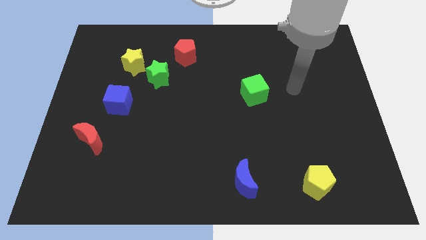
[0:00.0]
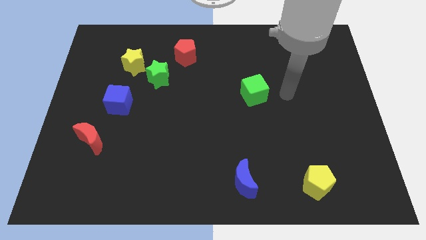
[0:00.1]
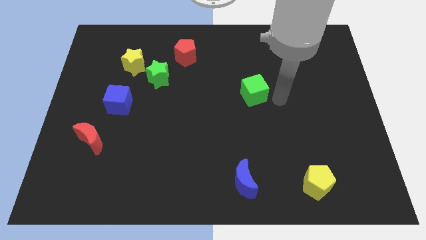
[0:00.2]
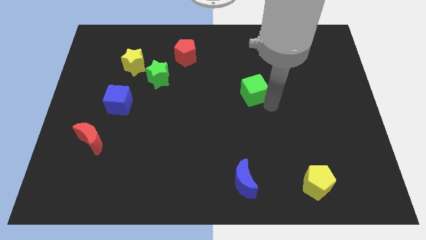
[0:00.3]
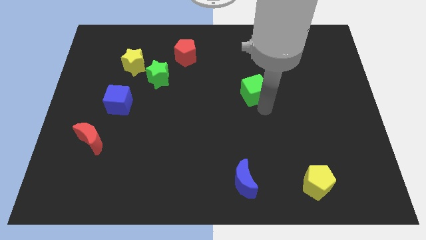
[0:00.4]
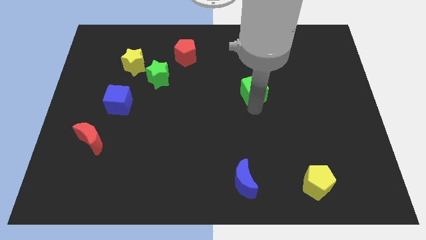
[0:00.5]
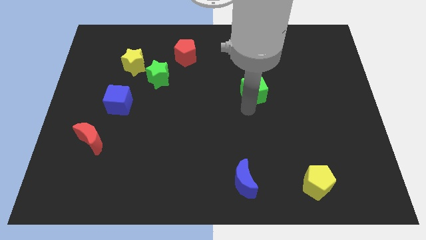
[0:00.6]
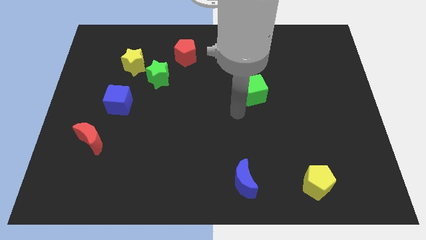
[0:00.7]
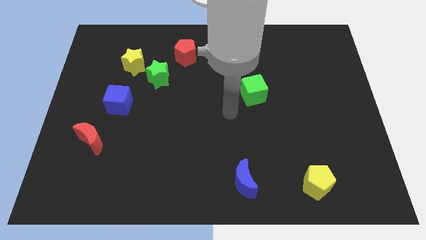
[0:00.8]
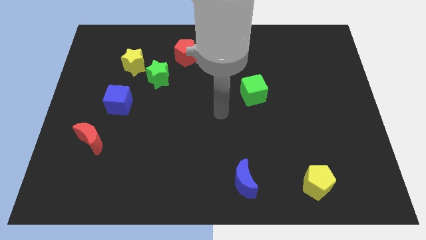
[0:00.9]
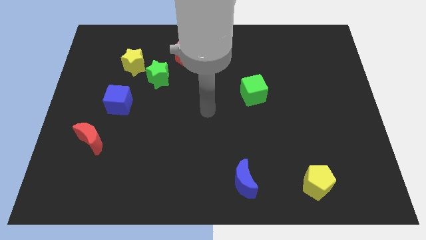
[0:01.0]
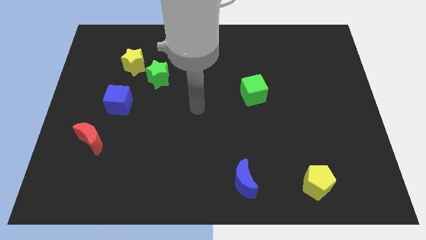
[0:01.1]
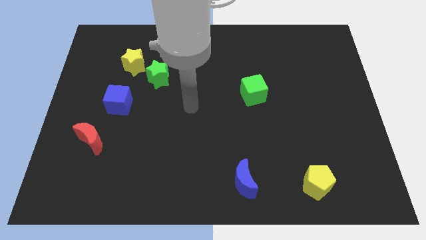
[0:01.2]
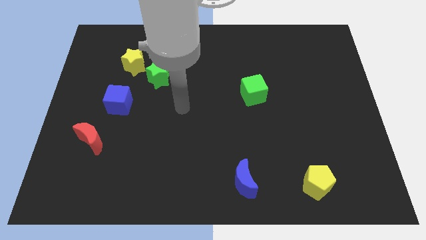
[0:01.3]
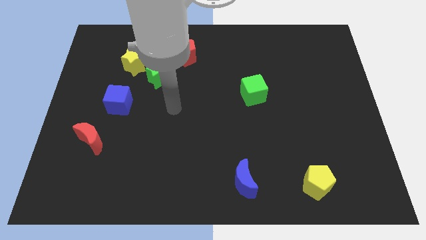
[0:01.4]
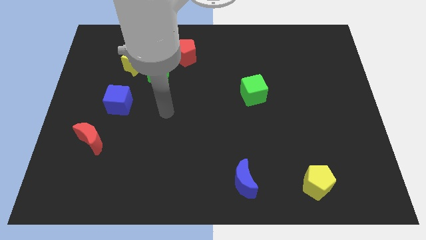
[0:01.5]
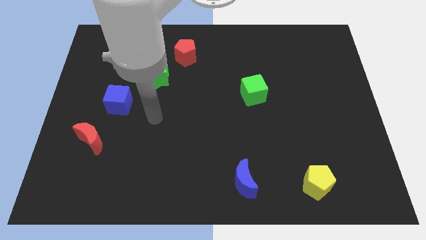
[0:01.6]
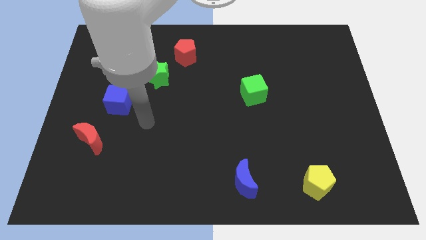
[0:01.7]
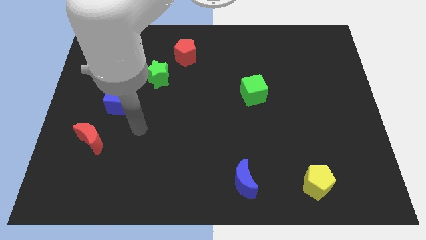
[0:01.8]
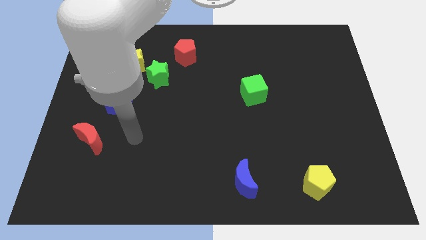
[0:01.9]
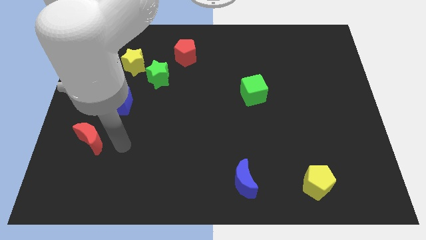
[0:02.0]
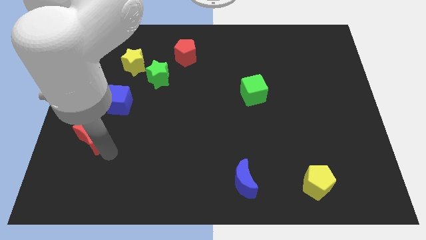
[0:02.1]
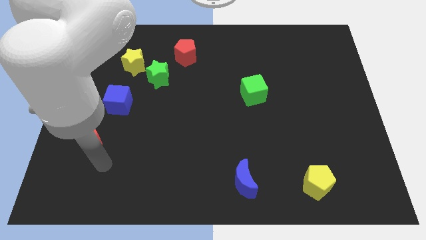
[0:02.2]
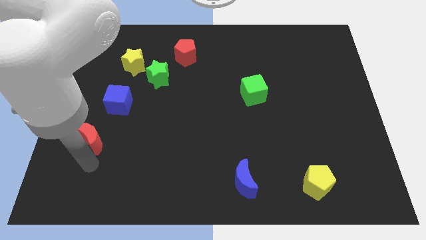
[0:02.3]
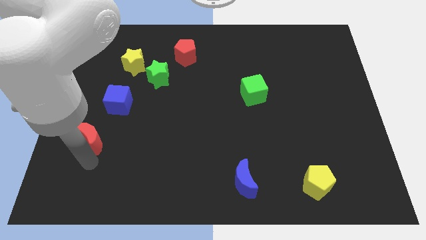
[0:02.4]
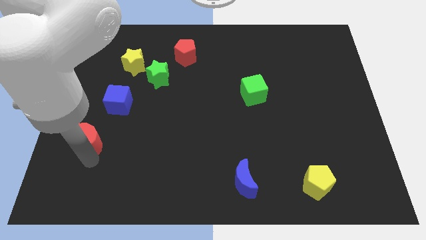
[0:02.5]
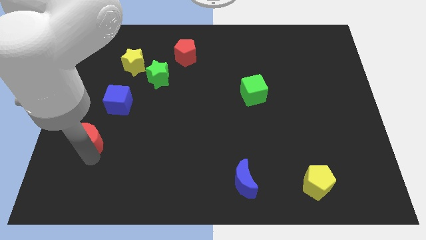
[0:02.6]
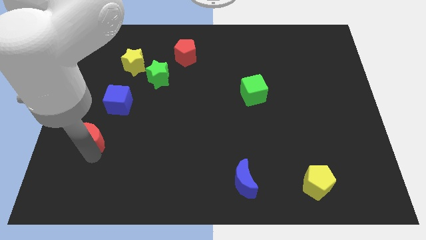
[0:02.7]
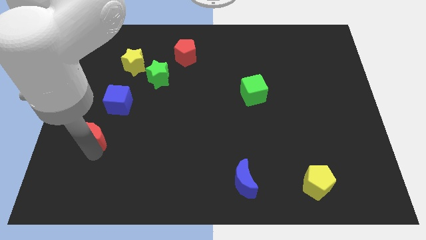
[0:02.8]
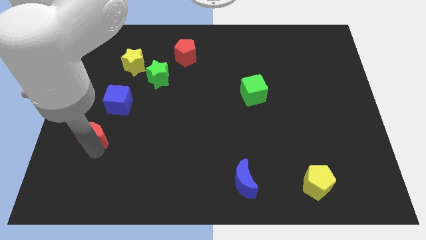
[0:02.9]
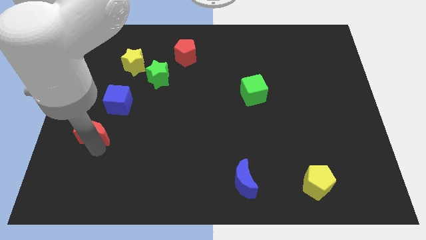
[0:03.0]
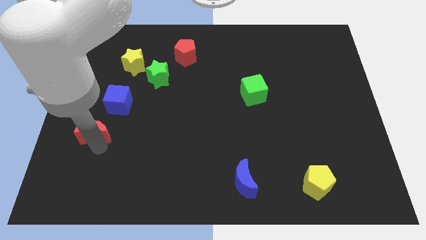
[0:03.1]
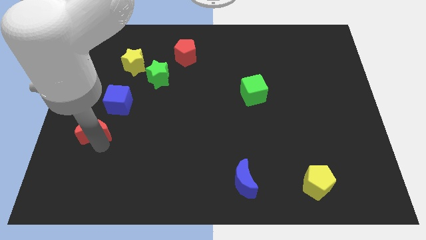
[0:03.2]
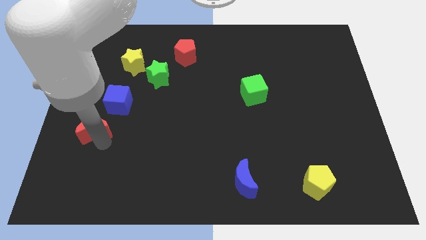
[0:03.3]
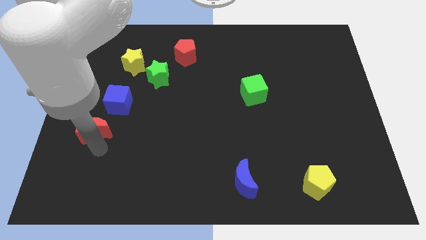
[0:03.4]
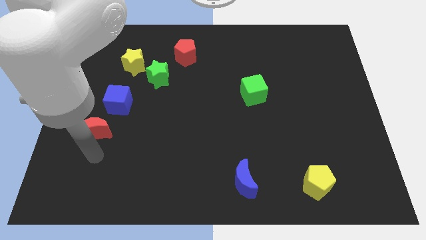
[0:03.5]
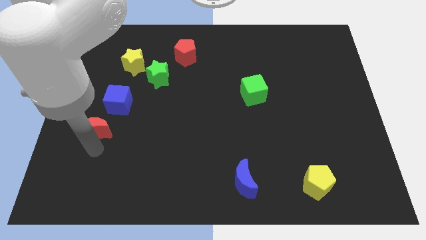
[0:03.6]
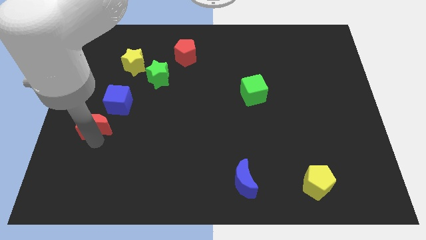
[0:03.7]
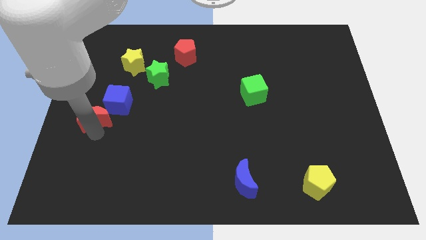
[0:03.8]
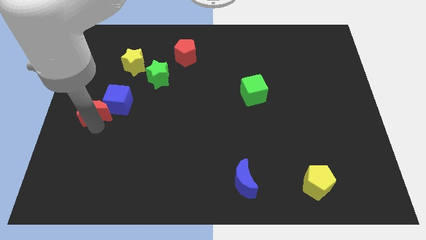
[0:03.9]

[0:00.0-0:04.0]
slightly slide the red moon up

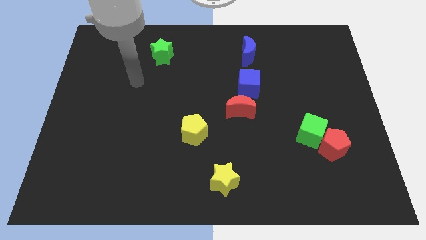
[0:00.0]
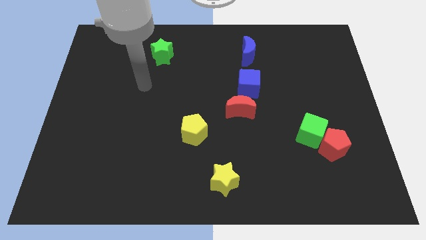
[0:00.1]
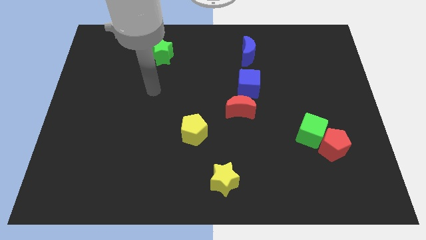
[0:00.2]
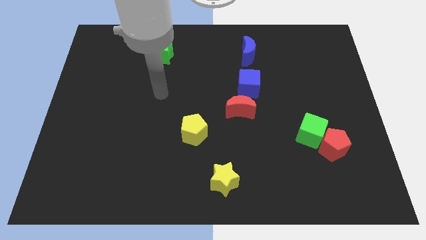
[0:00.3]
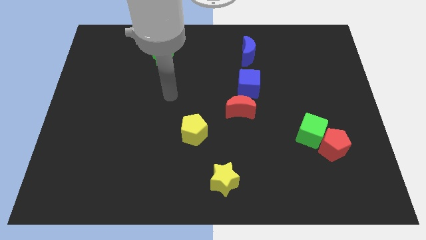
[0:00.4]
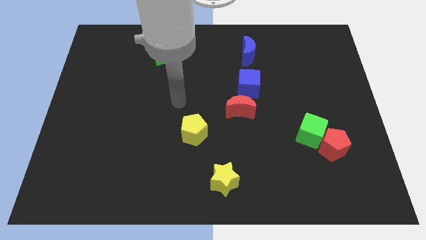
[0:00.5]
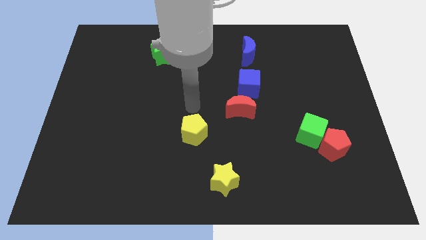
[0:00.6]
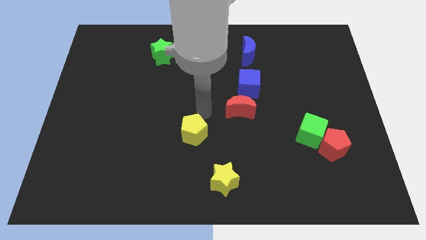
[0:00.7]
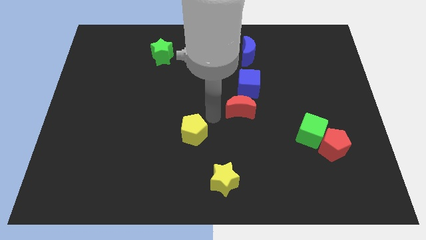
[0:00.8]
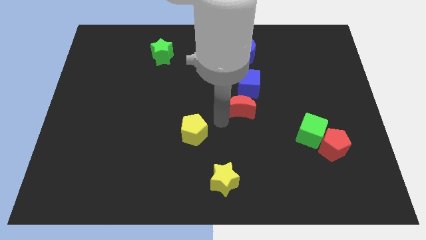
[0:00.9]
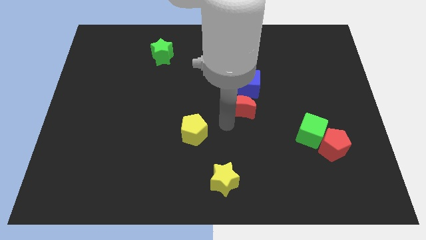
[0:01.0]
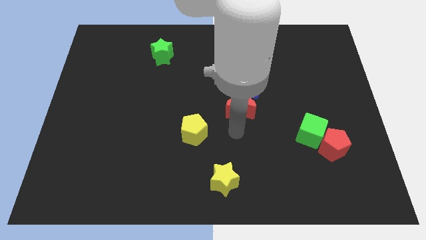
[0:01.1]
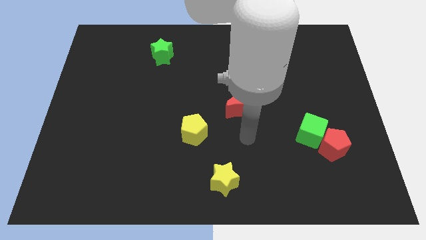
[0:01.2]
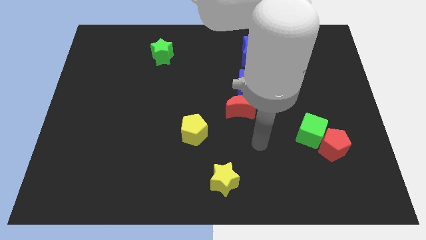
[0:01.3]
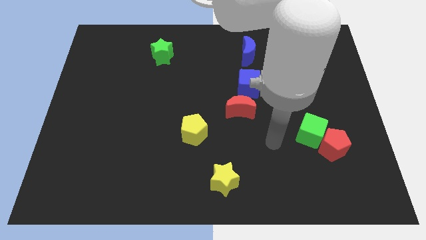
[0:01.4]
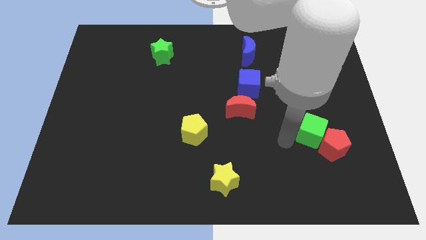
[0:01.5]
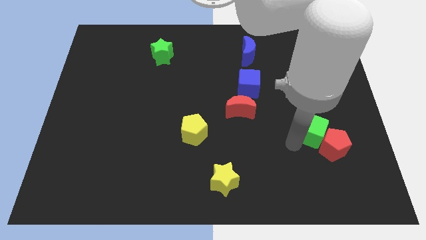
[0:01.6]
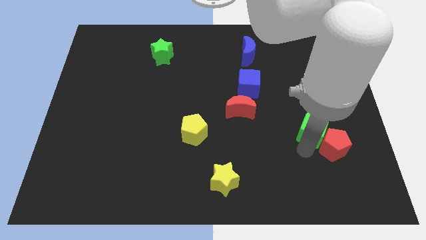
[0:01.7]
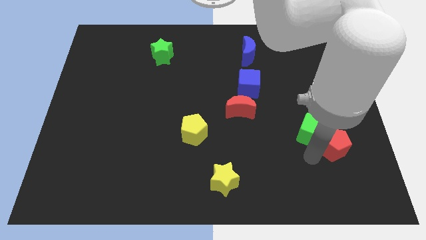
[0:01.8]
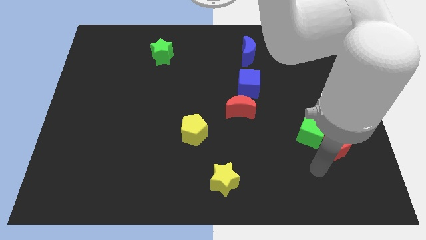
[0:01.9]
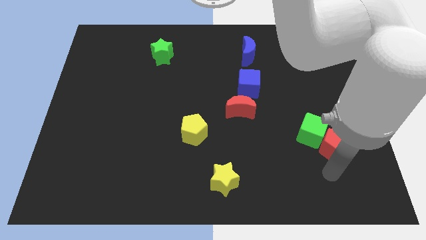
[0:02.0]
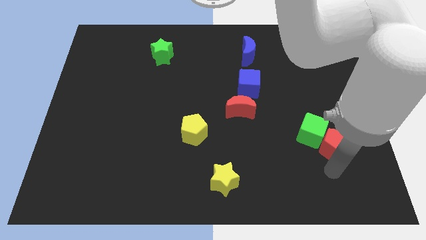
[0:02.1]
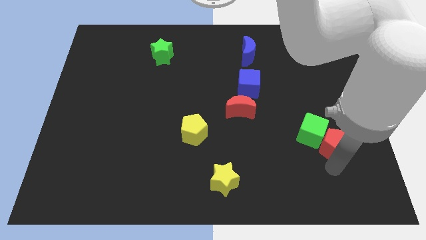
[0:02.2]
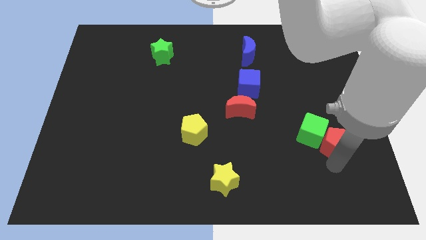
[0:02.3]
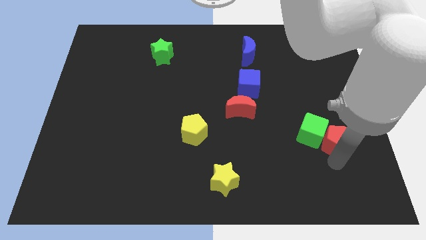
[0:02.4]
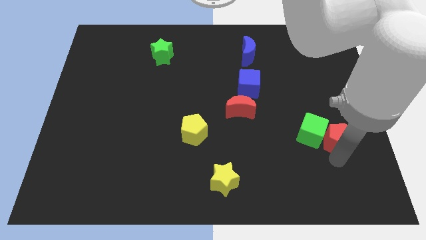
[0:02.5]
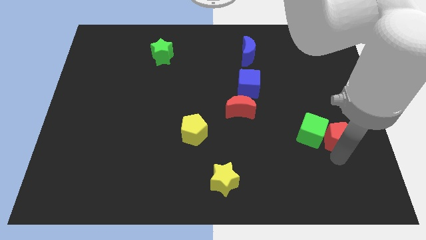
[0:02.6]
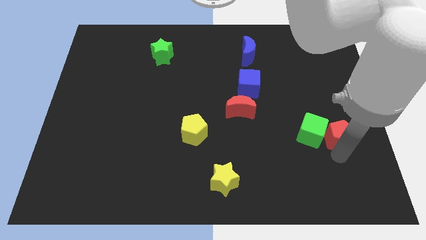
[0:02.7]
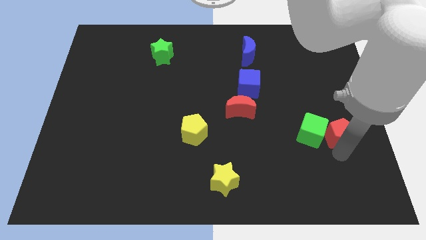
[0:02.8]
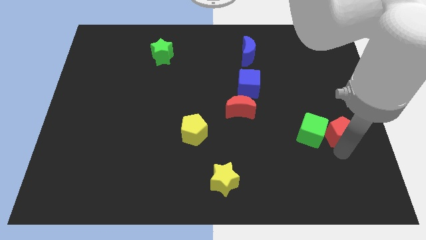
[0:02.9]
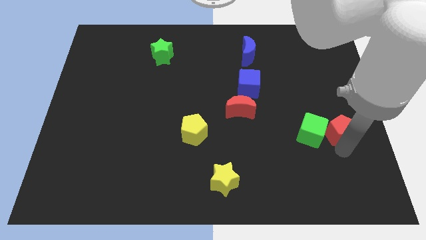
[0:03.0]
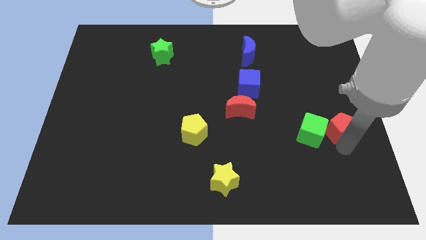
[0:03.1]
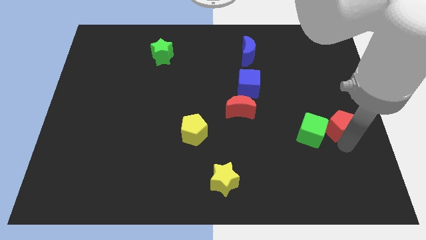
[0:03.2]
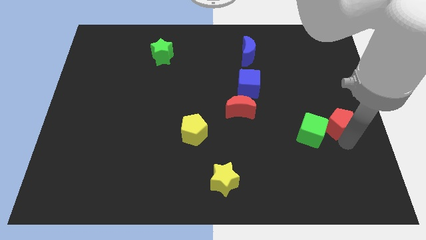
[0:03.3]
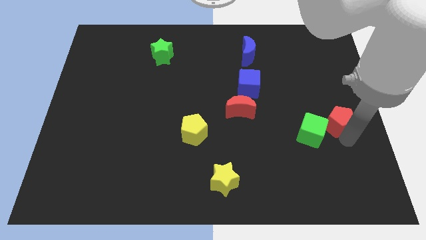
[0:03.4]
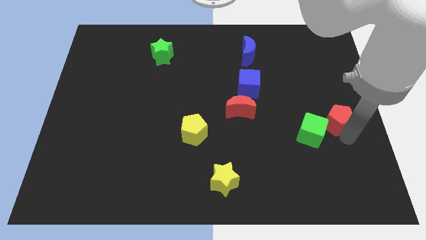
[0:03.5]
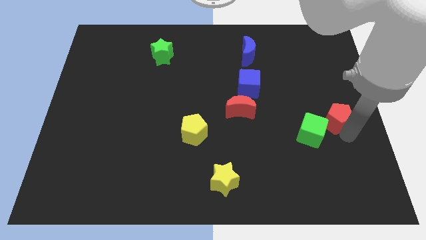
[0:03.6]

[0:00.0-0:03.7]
push the red pentagon up a little
